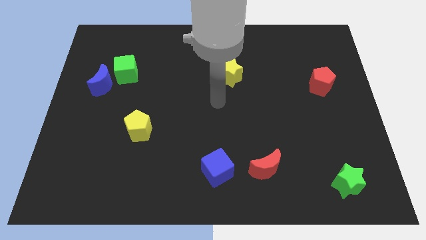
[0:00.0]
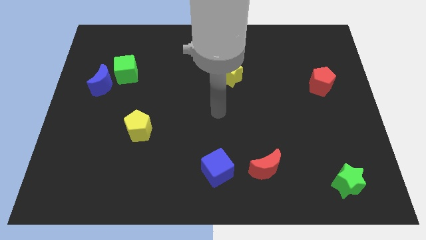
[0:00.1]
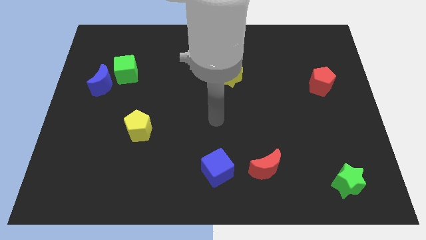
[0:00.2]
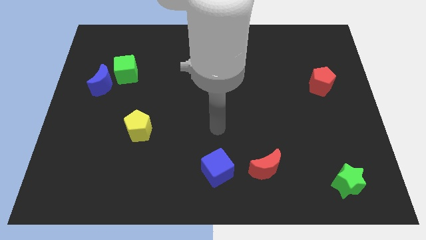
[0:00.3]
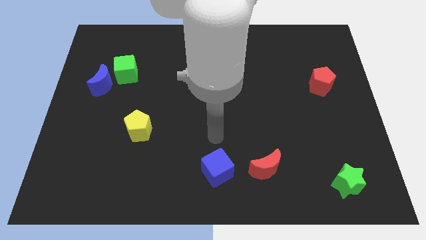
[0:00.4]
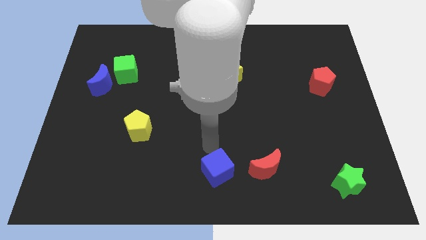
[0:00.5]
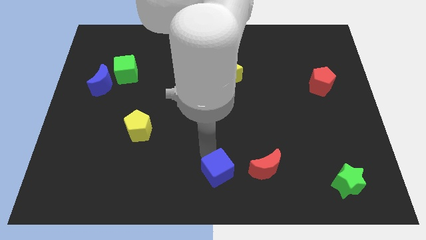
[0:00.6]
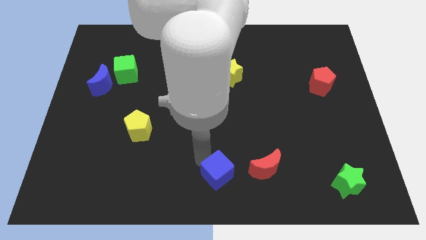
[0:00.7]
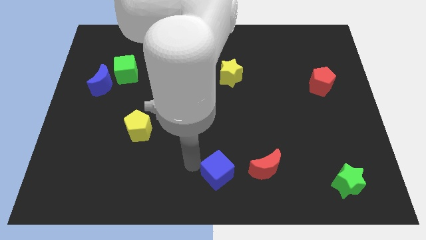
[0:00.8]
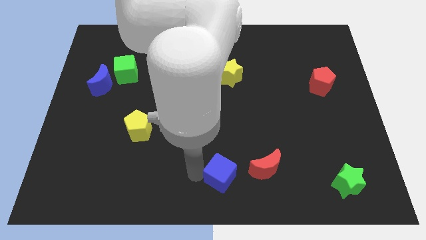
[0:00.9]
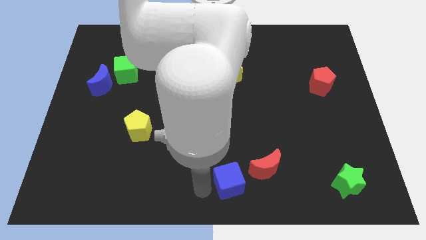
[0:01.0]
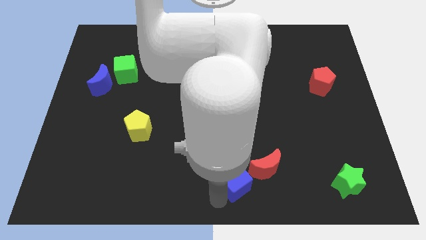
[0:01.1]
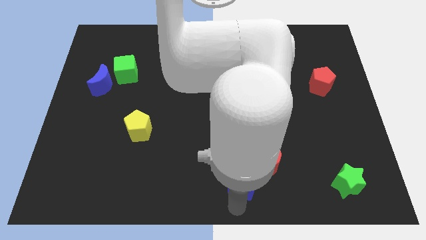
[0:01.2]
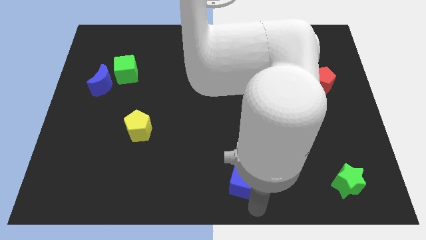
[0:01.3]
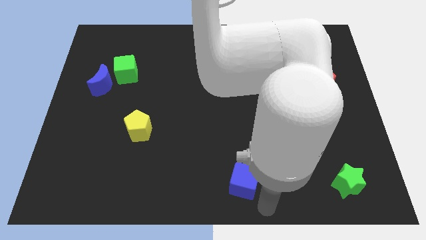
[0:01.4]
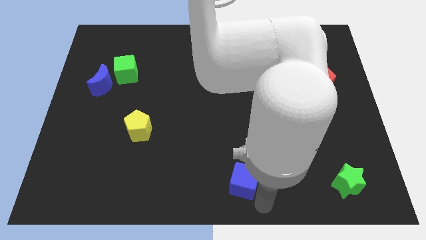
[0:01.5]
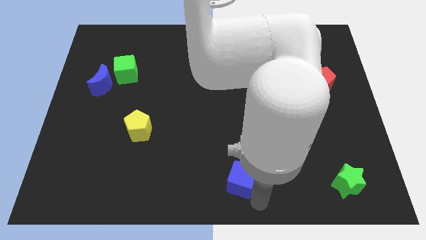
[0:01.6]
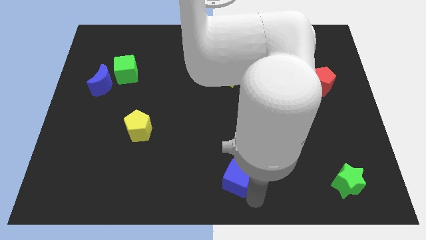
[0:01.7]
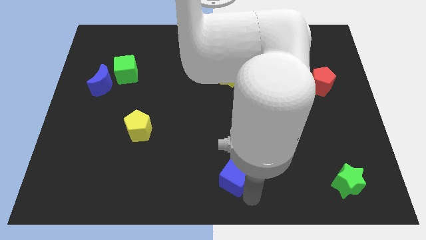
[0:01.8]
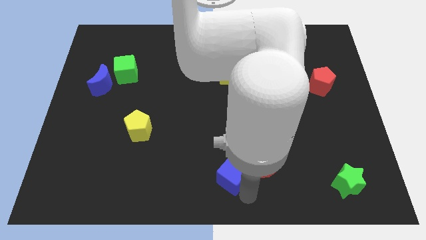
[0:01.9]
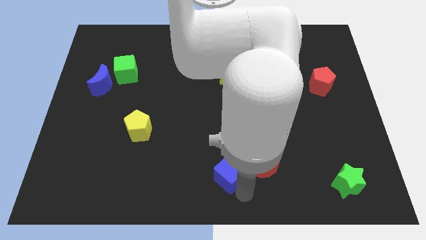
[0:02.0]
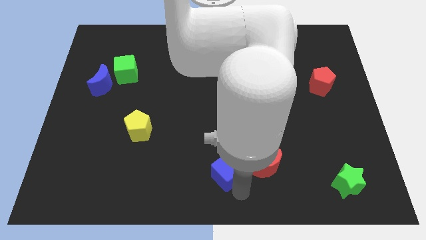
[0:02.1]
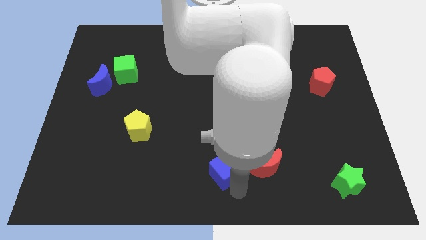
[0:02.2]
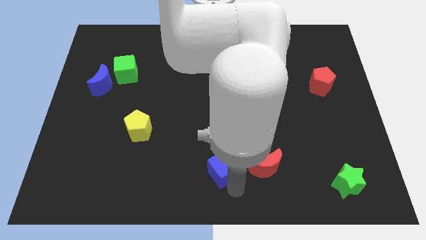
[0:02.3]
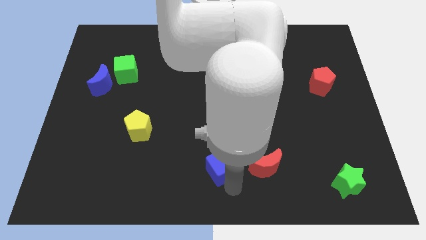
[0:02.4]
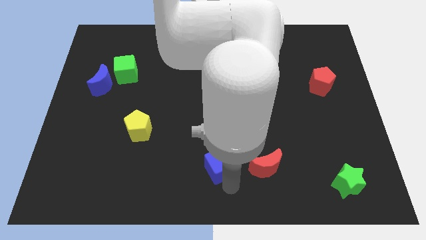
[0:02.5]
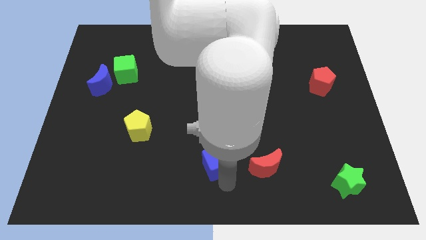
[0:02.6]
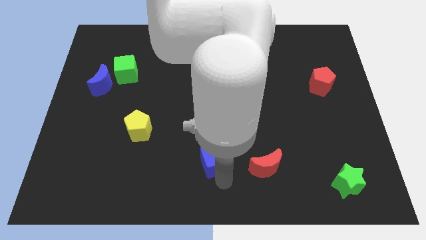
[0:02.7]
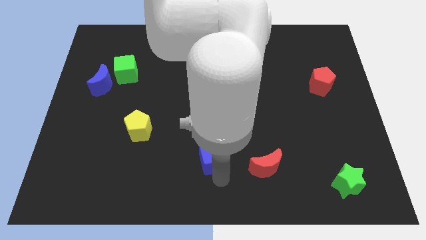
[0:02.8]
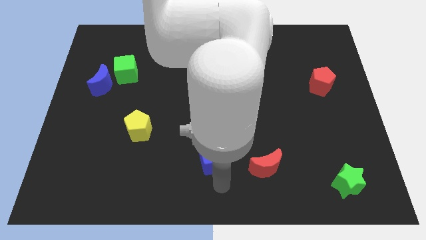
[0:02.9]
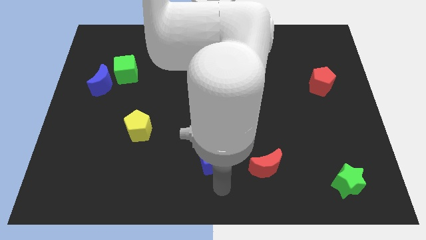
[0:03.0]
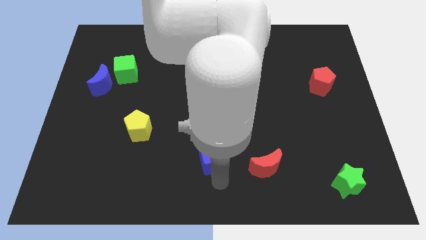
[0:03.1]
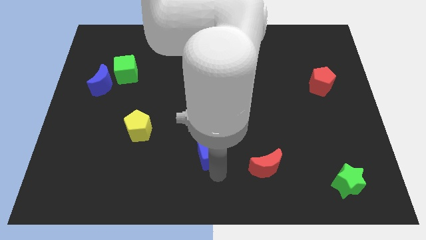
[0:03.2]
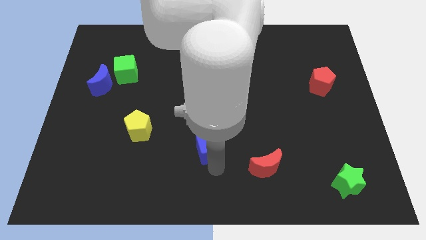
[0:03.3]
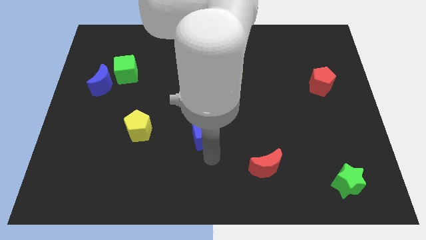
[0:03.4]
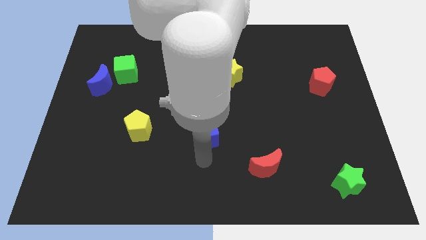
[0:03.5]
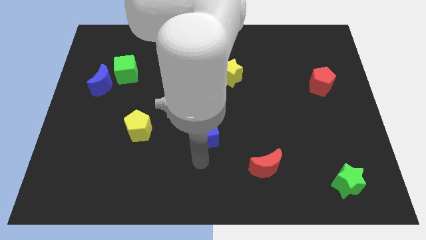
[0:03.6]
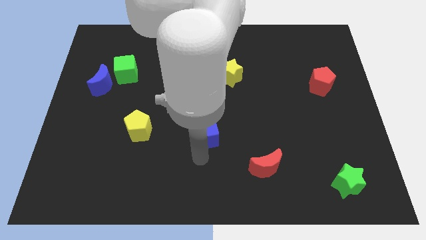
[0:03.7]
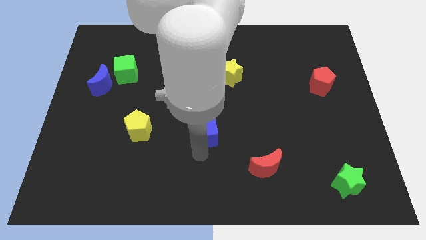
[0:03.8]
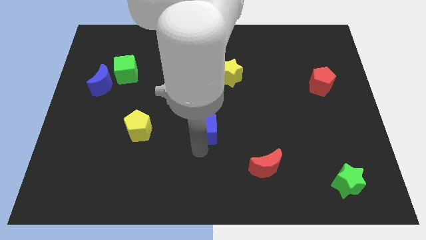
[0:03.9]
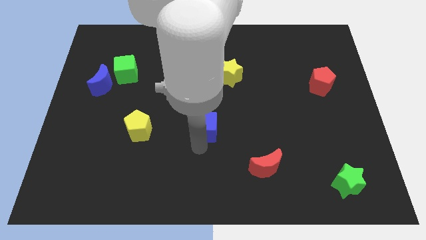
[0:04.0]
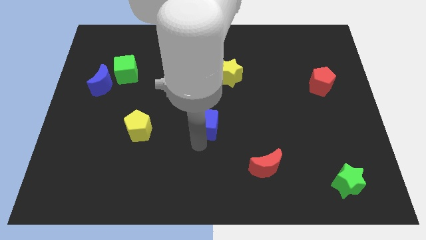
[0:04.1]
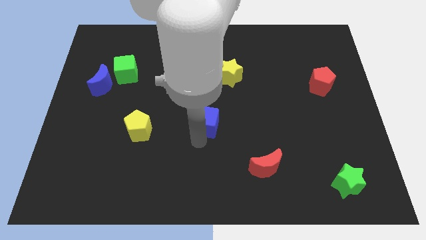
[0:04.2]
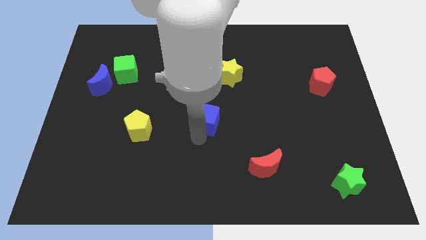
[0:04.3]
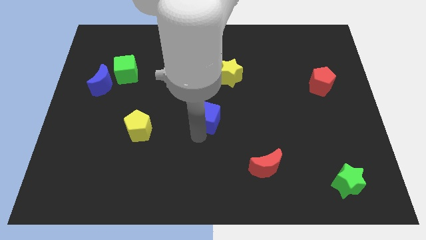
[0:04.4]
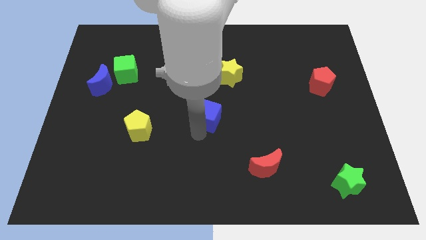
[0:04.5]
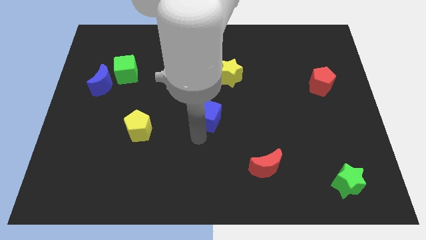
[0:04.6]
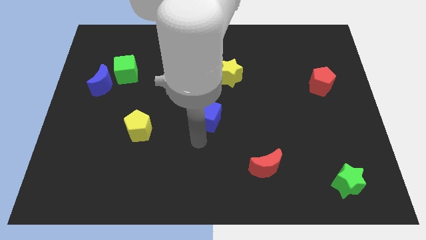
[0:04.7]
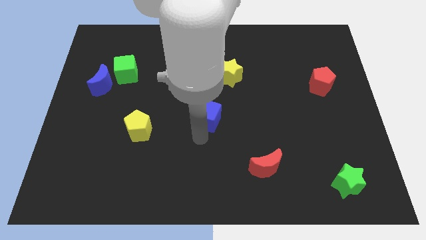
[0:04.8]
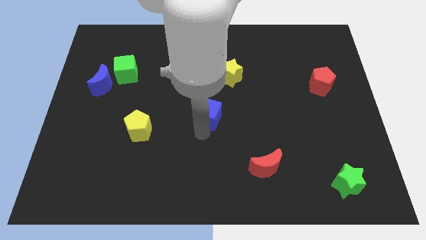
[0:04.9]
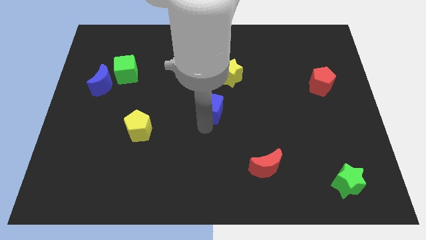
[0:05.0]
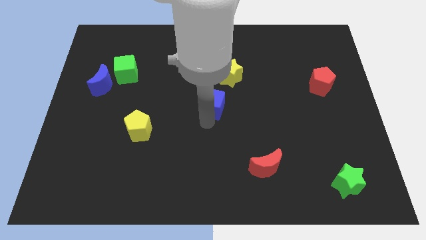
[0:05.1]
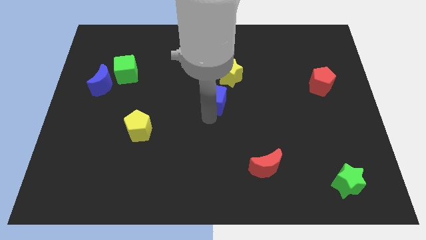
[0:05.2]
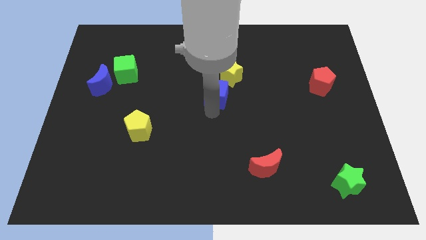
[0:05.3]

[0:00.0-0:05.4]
push the blue cube up

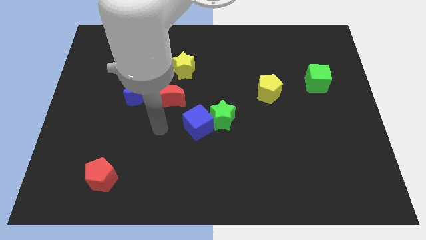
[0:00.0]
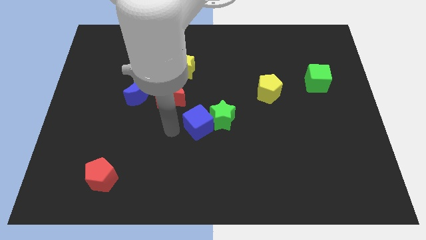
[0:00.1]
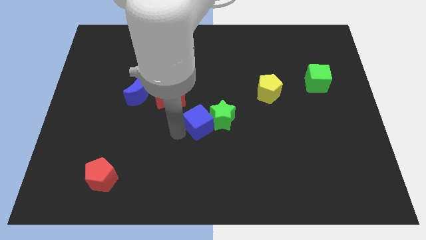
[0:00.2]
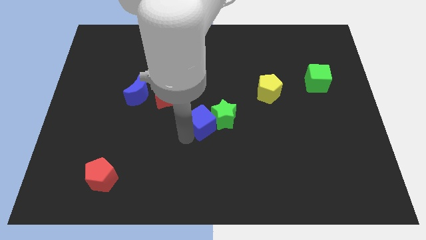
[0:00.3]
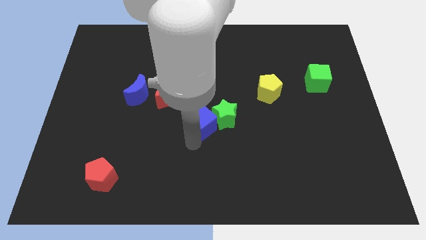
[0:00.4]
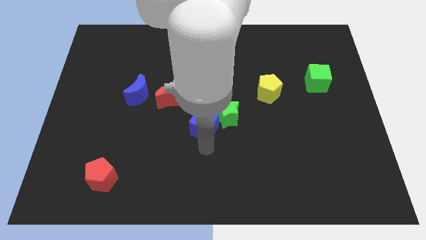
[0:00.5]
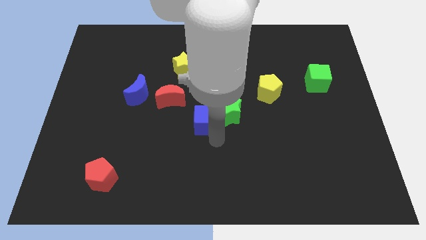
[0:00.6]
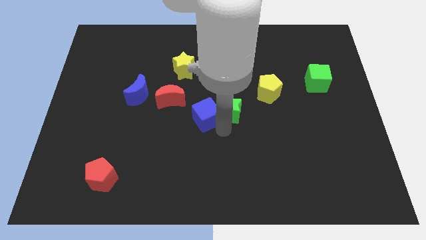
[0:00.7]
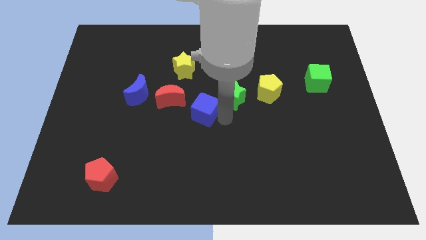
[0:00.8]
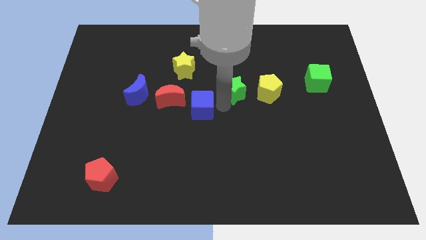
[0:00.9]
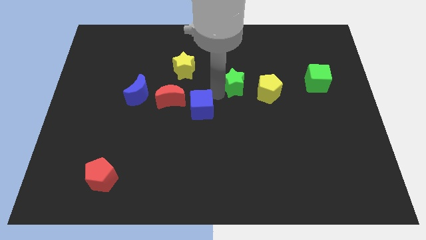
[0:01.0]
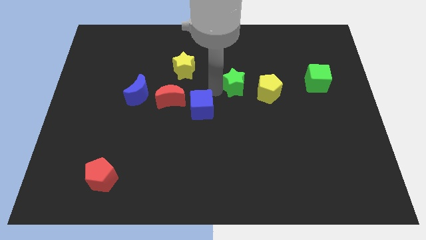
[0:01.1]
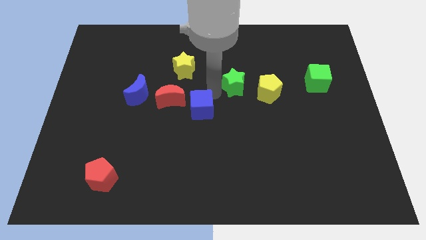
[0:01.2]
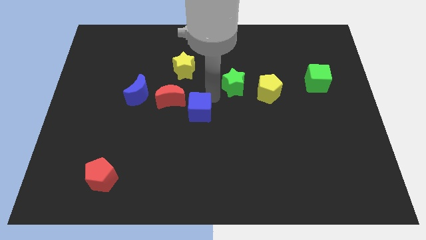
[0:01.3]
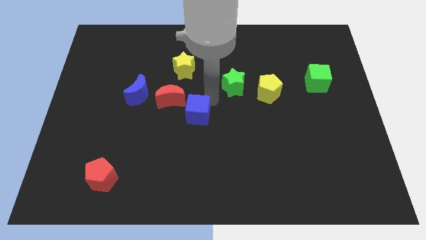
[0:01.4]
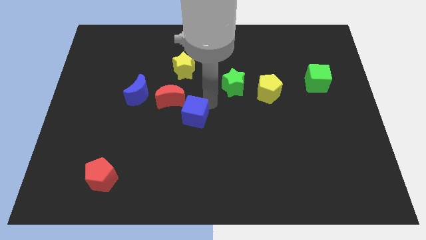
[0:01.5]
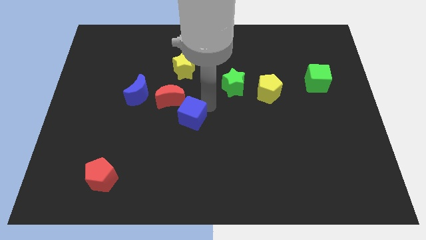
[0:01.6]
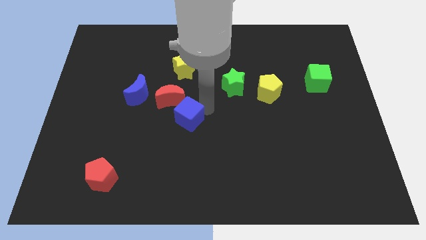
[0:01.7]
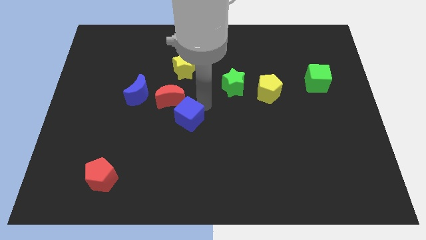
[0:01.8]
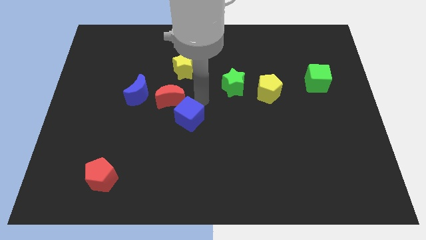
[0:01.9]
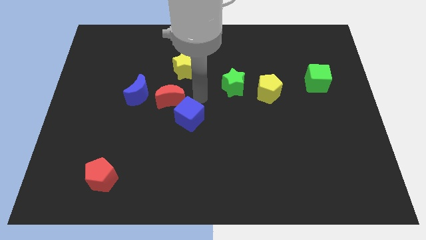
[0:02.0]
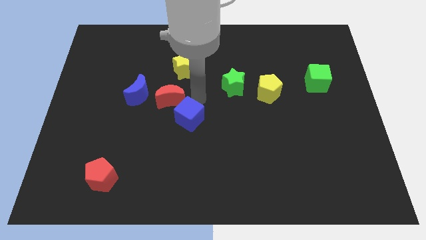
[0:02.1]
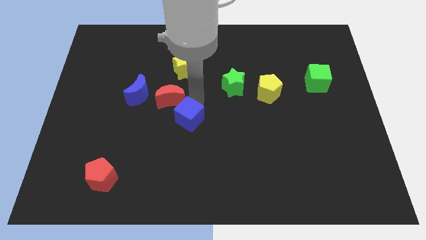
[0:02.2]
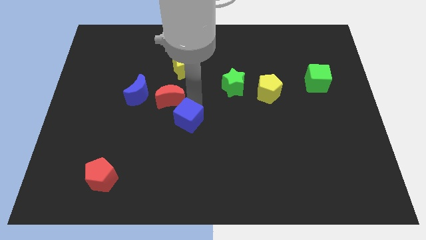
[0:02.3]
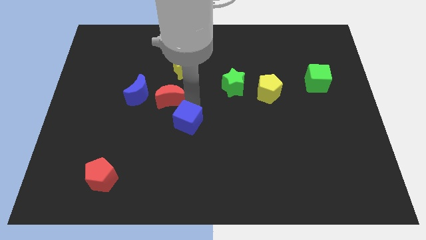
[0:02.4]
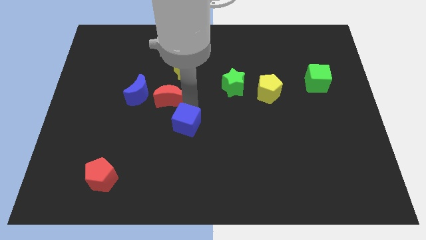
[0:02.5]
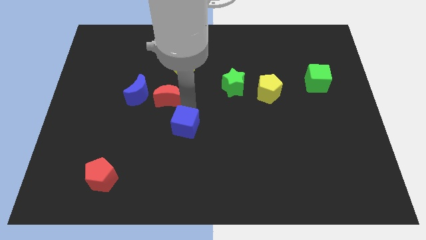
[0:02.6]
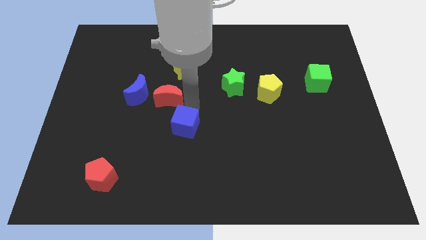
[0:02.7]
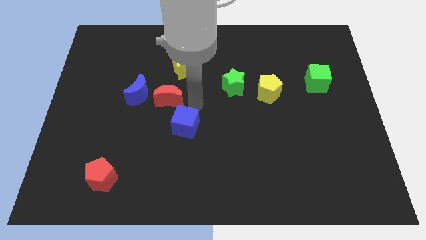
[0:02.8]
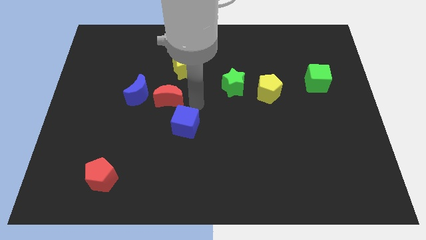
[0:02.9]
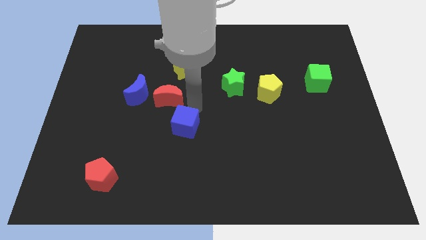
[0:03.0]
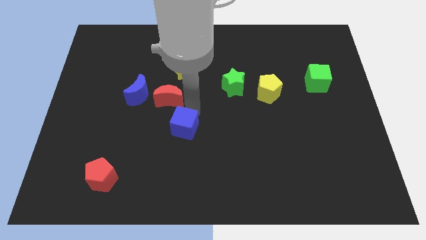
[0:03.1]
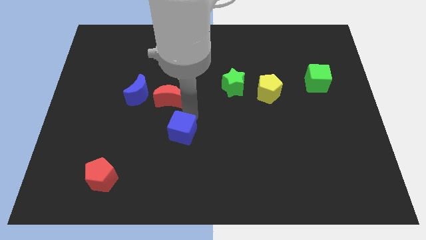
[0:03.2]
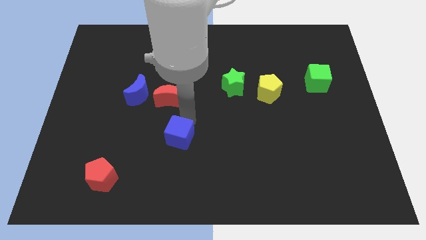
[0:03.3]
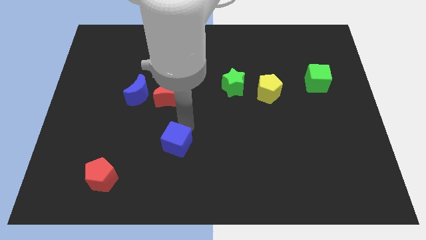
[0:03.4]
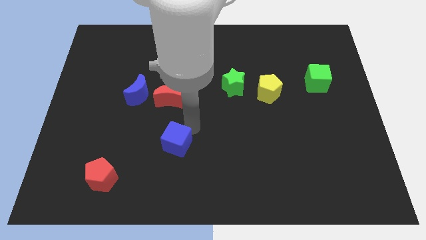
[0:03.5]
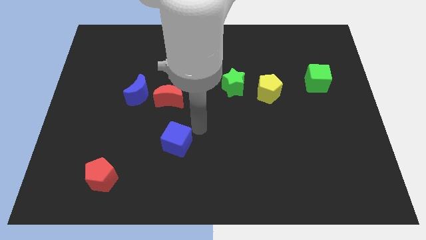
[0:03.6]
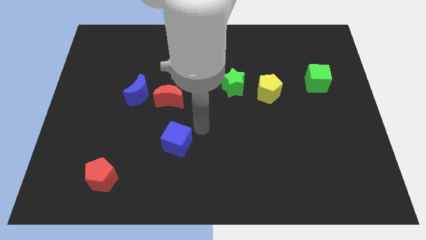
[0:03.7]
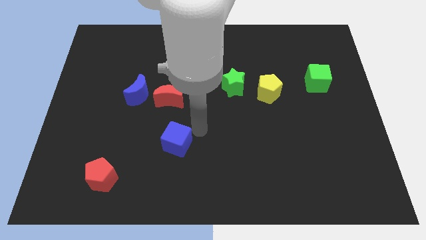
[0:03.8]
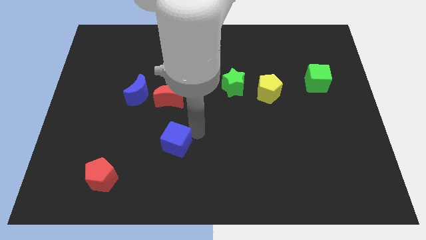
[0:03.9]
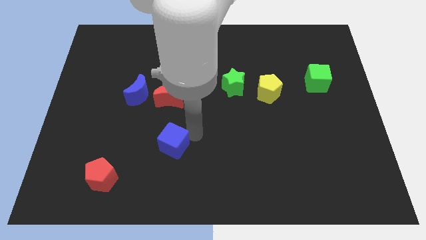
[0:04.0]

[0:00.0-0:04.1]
slide the blue cube somewhat downwards and then left
